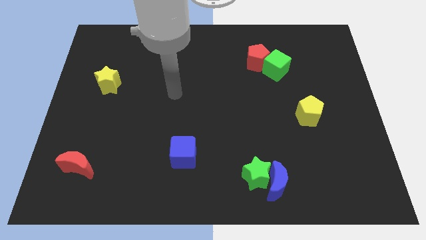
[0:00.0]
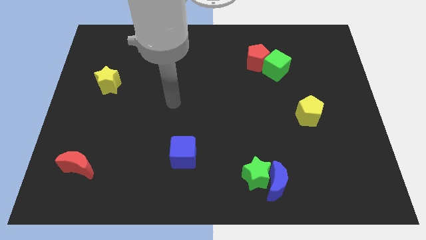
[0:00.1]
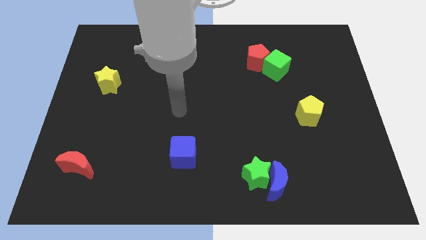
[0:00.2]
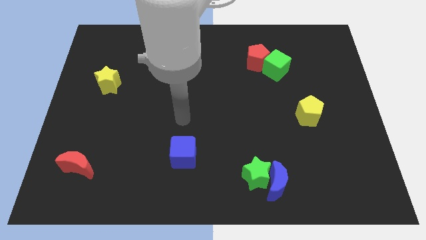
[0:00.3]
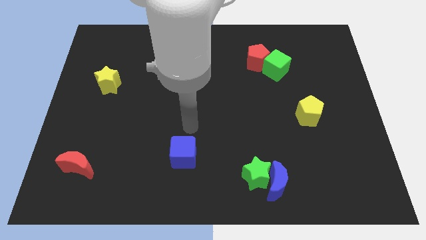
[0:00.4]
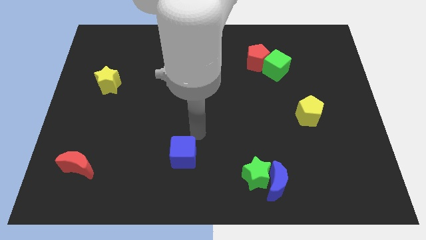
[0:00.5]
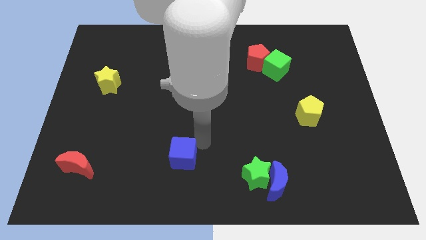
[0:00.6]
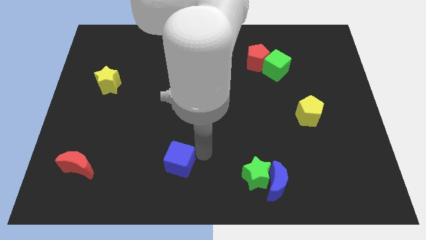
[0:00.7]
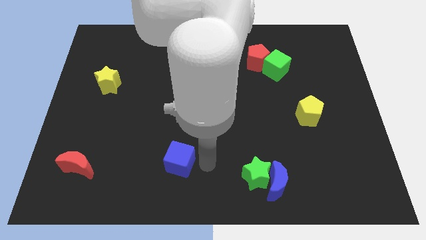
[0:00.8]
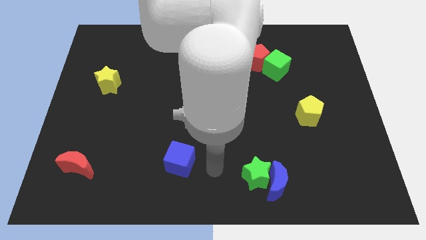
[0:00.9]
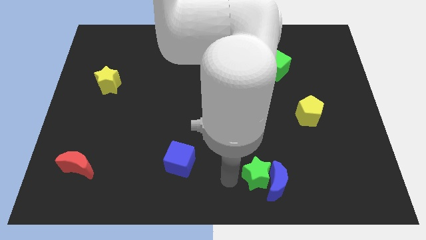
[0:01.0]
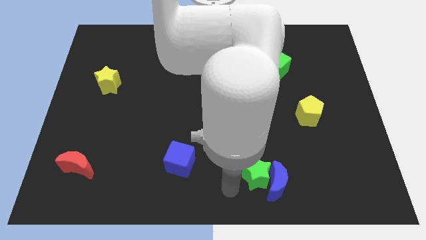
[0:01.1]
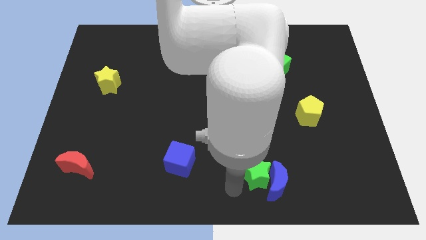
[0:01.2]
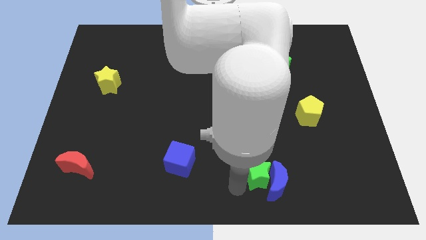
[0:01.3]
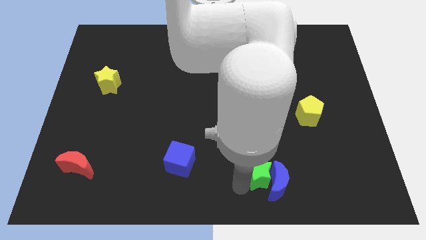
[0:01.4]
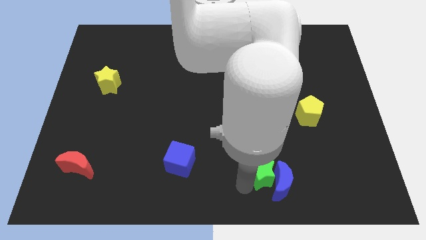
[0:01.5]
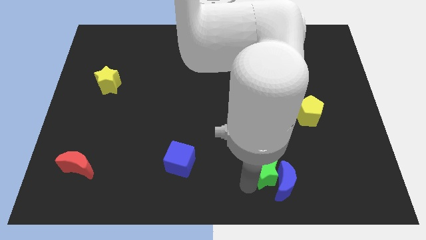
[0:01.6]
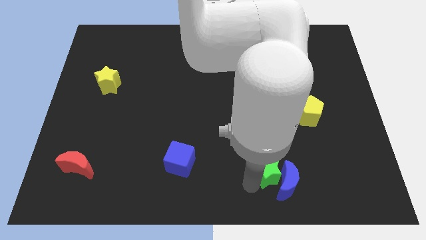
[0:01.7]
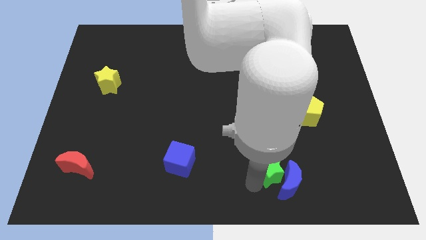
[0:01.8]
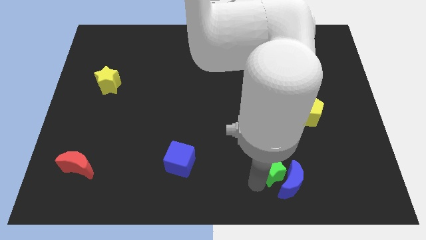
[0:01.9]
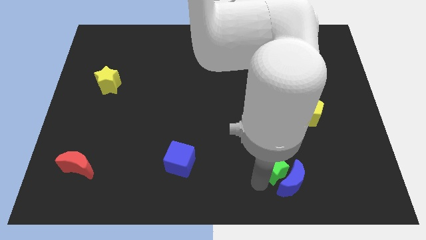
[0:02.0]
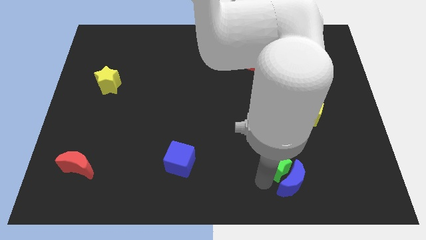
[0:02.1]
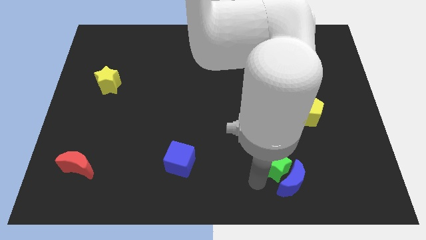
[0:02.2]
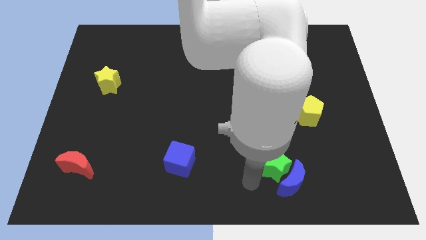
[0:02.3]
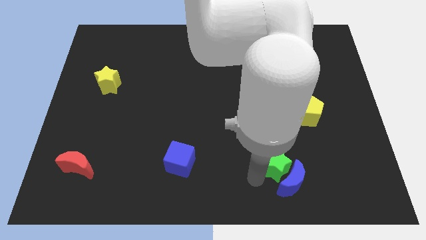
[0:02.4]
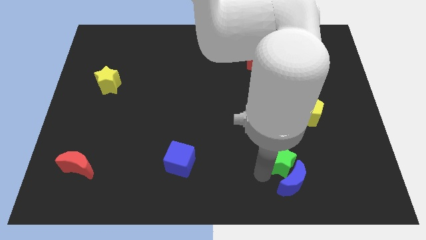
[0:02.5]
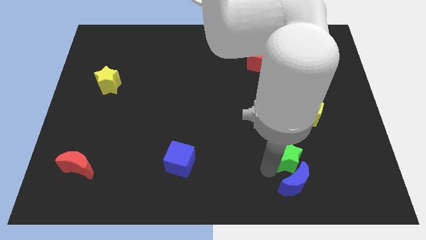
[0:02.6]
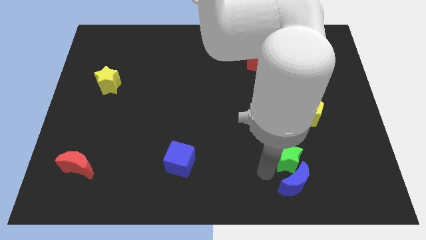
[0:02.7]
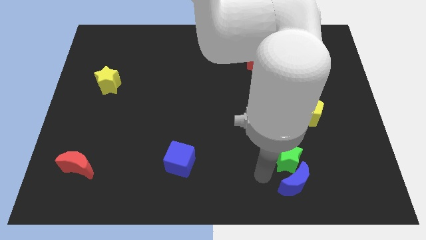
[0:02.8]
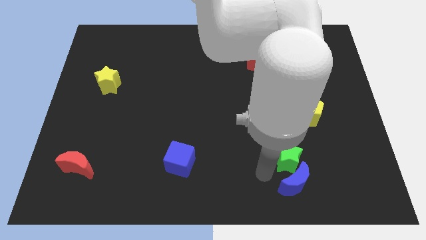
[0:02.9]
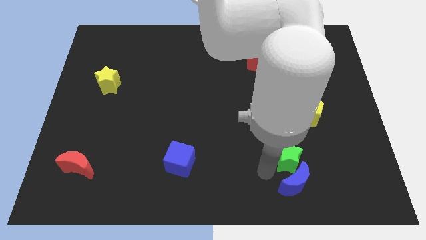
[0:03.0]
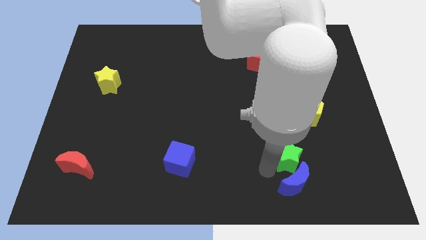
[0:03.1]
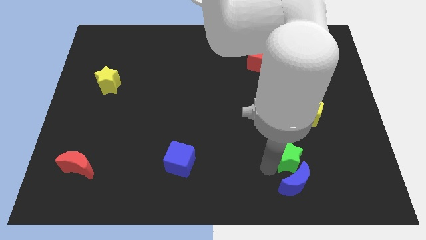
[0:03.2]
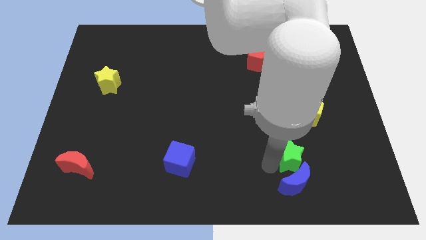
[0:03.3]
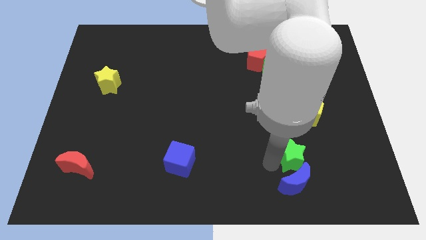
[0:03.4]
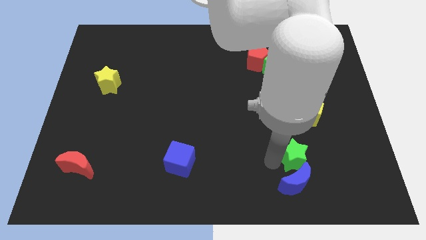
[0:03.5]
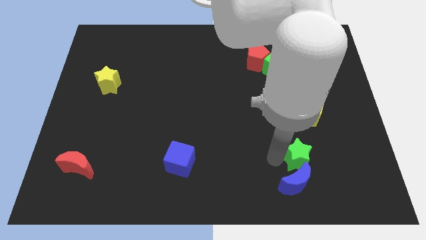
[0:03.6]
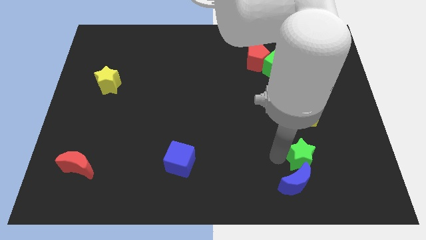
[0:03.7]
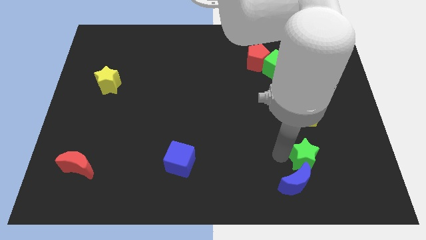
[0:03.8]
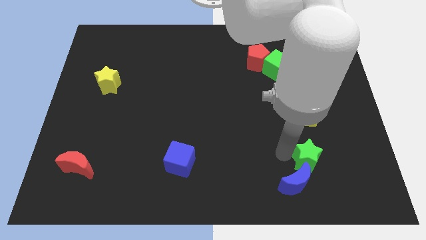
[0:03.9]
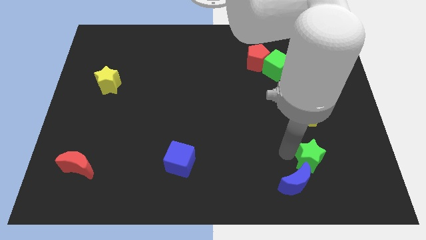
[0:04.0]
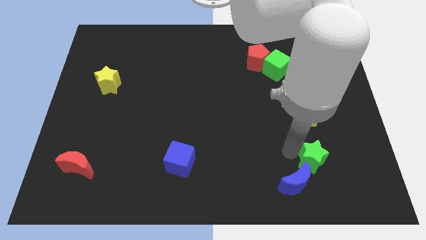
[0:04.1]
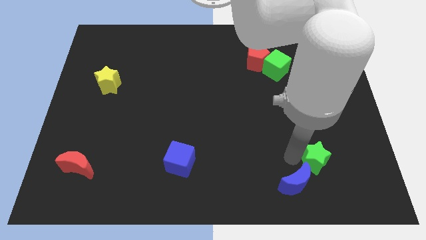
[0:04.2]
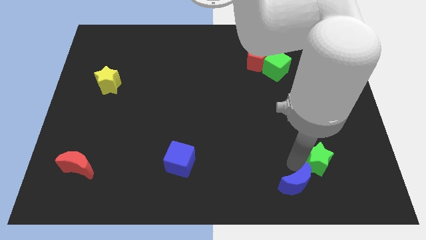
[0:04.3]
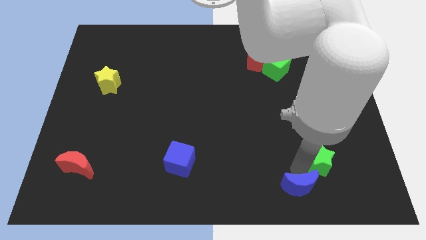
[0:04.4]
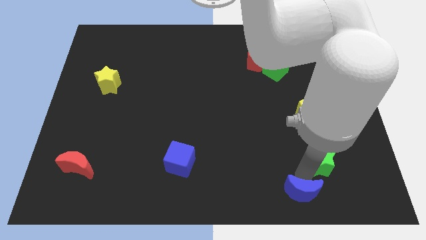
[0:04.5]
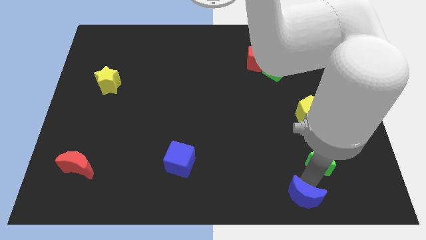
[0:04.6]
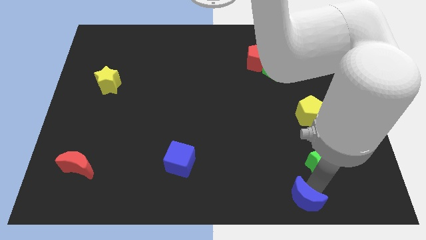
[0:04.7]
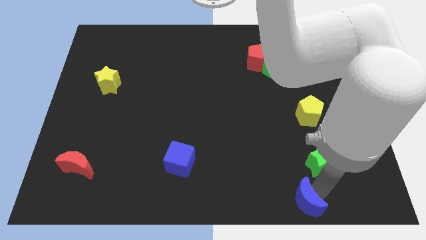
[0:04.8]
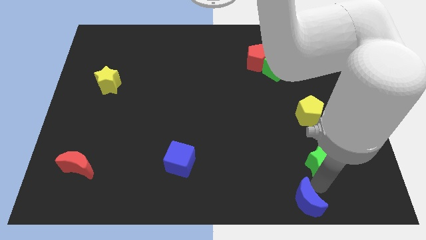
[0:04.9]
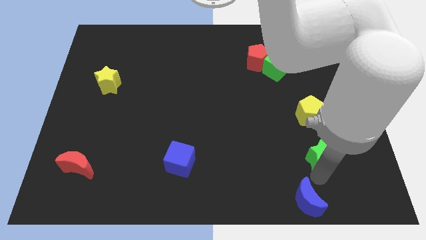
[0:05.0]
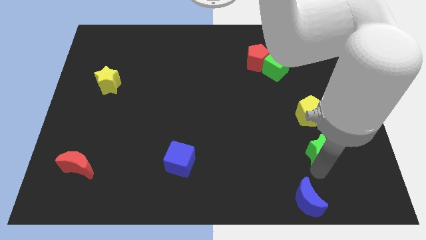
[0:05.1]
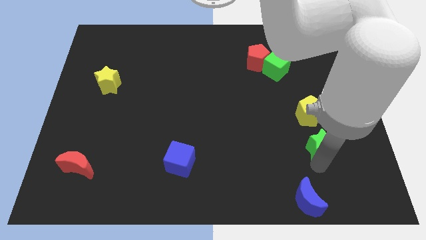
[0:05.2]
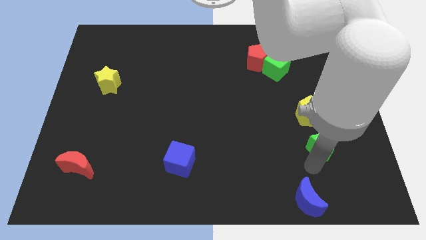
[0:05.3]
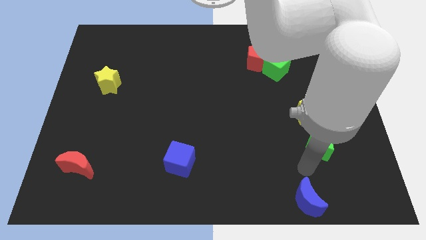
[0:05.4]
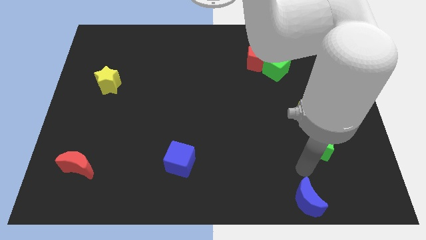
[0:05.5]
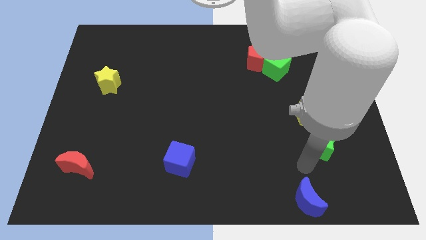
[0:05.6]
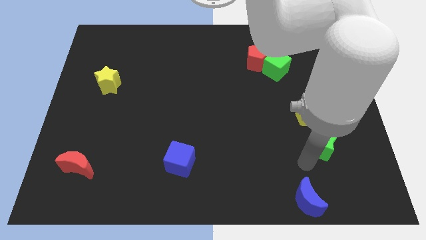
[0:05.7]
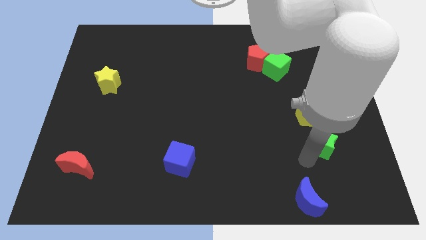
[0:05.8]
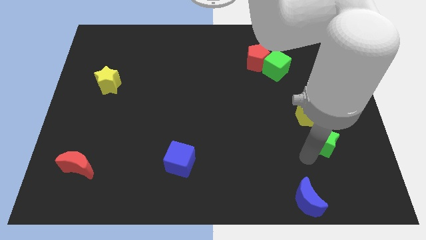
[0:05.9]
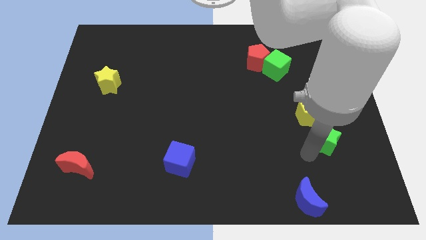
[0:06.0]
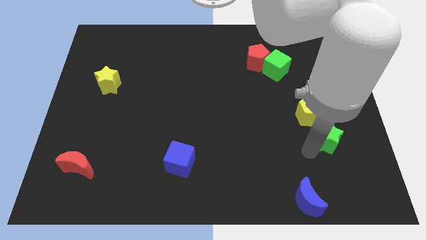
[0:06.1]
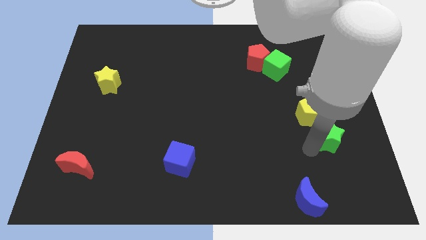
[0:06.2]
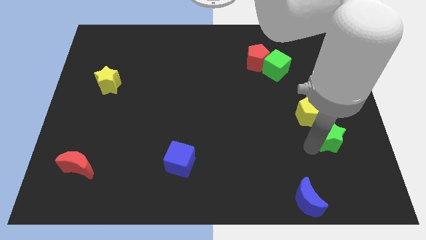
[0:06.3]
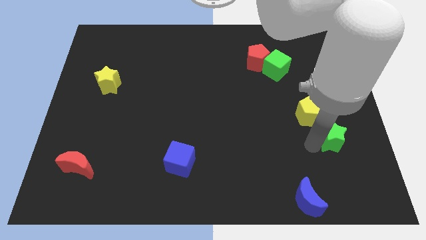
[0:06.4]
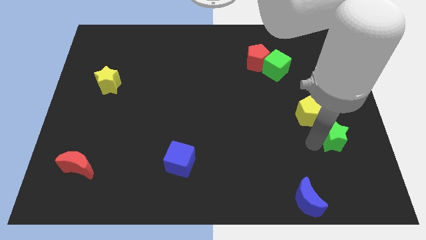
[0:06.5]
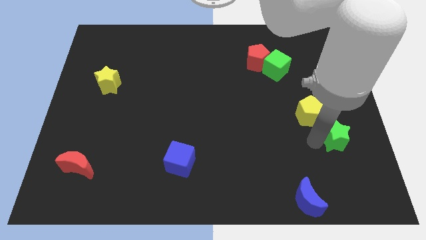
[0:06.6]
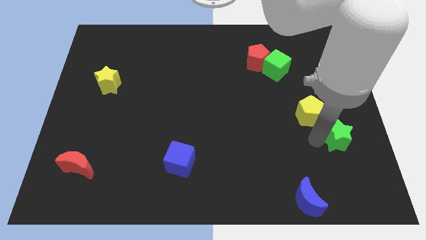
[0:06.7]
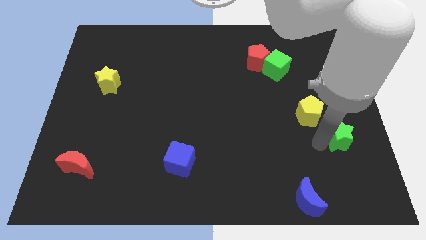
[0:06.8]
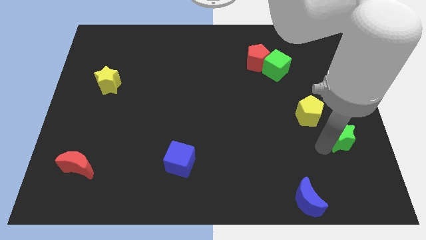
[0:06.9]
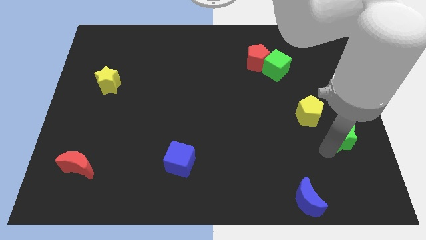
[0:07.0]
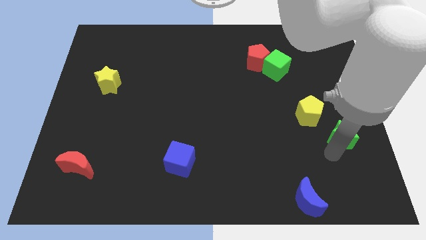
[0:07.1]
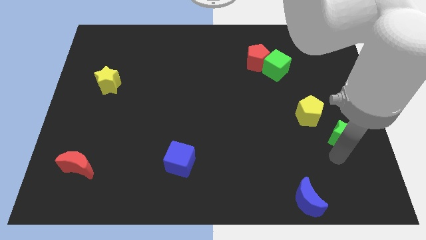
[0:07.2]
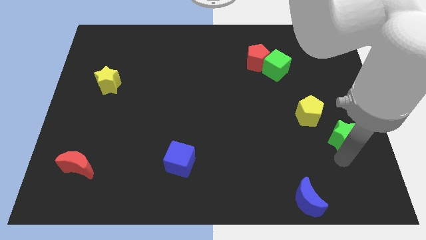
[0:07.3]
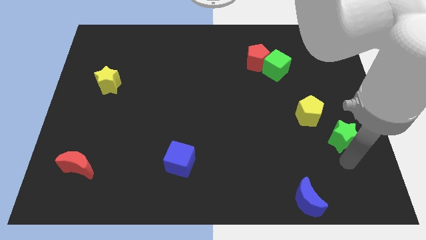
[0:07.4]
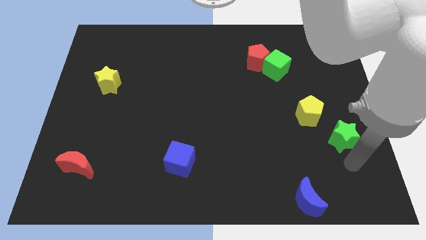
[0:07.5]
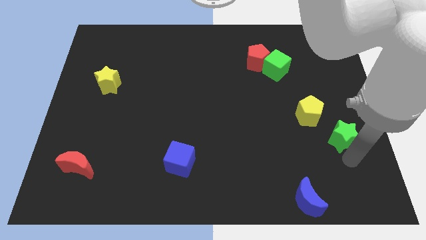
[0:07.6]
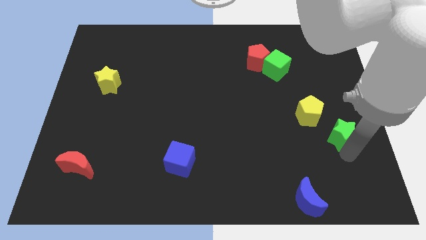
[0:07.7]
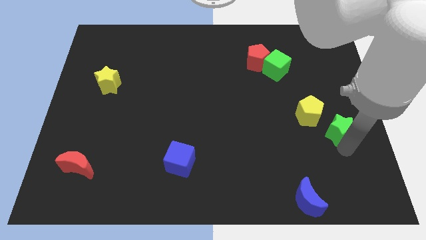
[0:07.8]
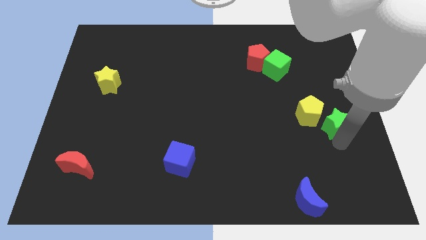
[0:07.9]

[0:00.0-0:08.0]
put the green star to the right side
